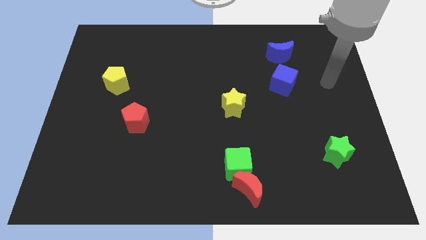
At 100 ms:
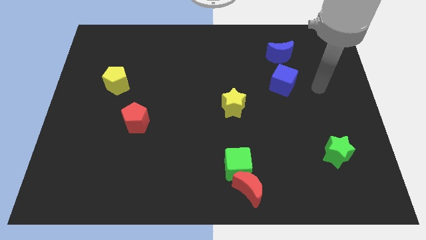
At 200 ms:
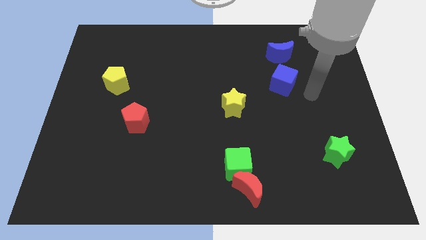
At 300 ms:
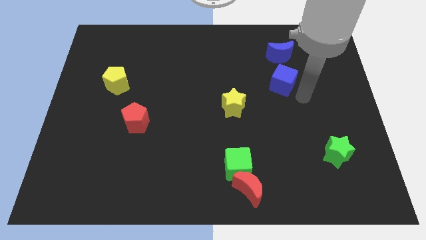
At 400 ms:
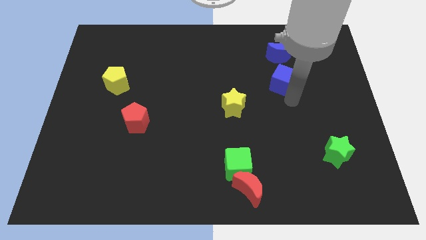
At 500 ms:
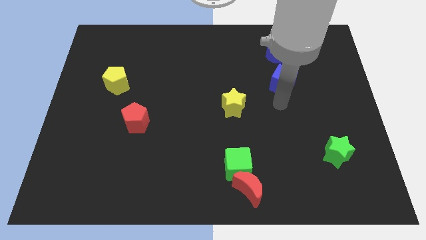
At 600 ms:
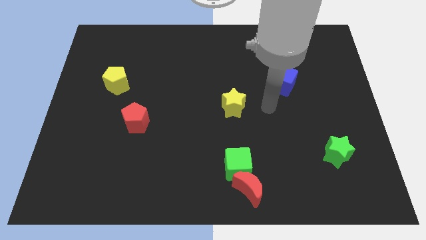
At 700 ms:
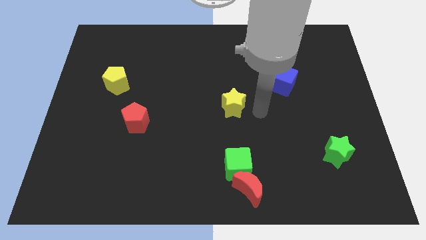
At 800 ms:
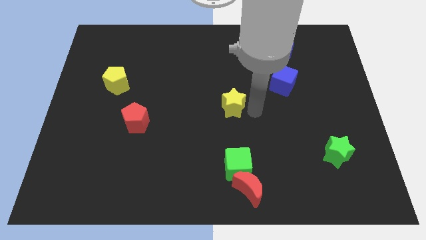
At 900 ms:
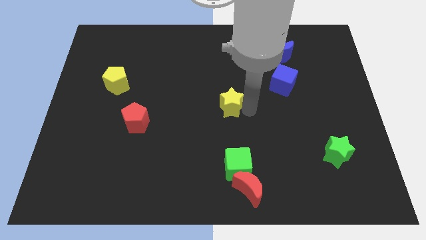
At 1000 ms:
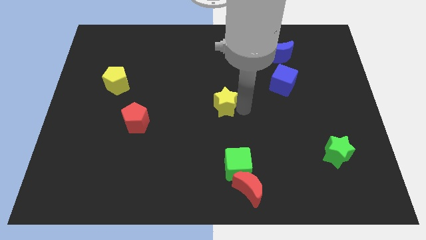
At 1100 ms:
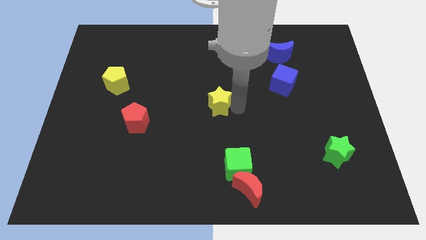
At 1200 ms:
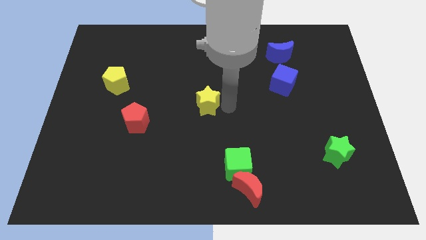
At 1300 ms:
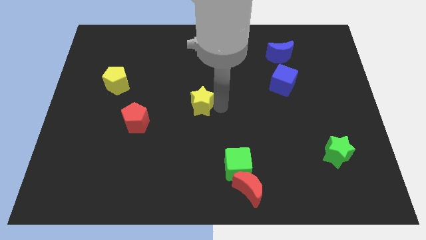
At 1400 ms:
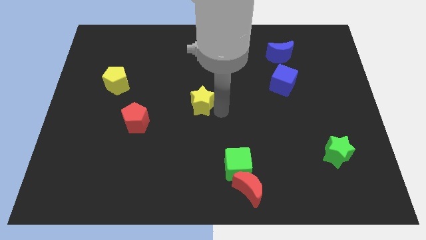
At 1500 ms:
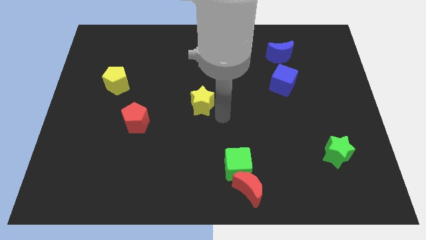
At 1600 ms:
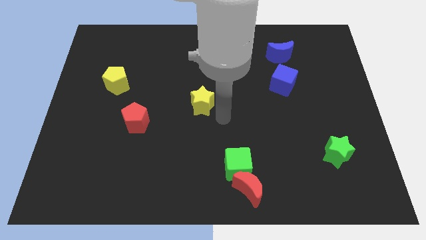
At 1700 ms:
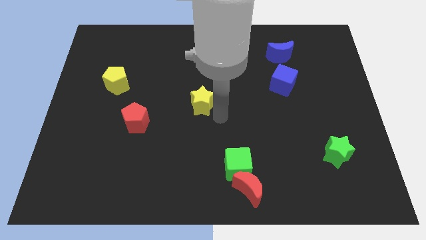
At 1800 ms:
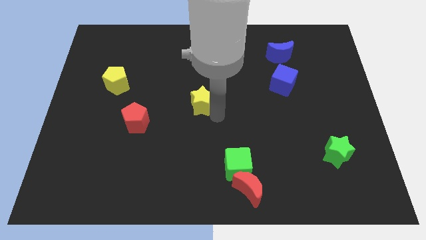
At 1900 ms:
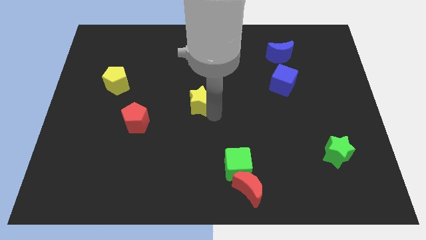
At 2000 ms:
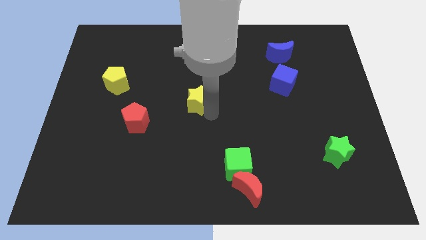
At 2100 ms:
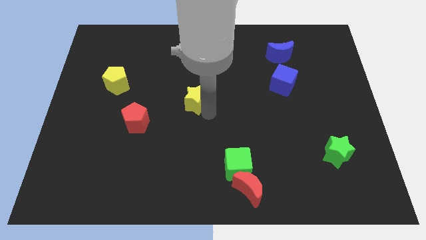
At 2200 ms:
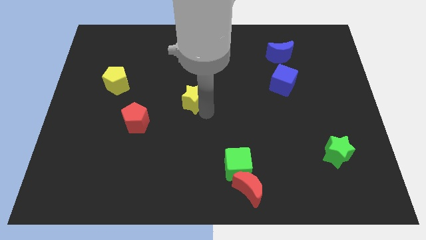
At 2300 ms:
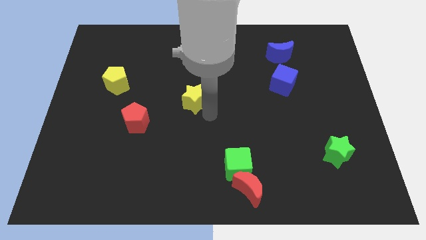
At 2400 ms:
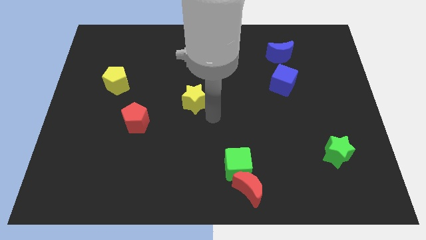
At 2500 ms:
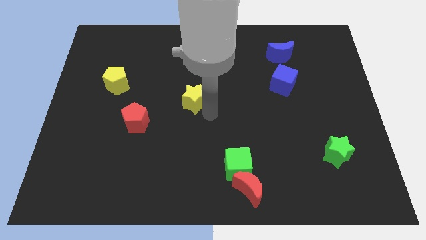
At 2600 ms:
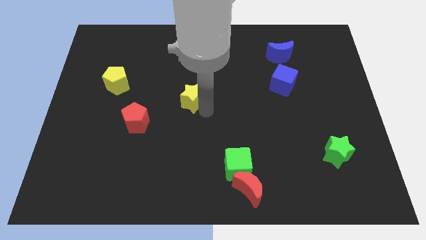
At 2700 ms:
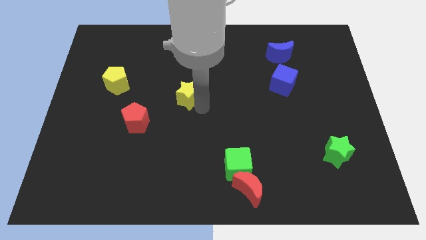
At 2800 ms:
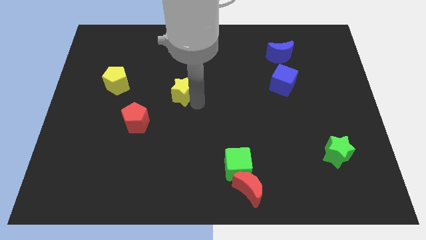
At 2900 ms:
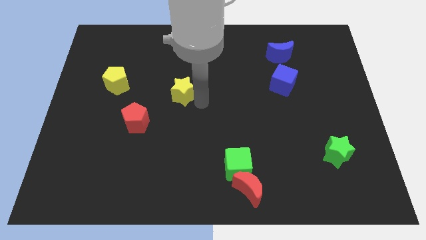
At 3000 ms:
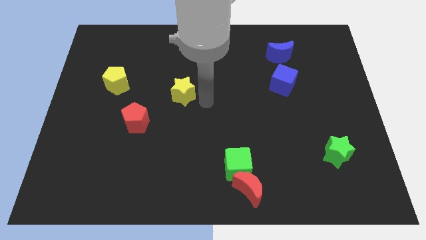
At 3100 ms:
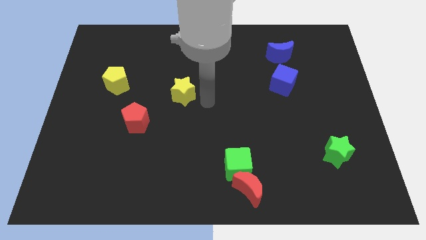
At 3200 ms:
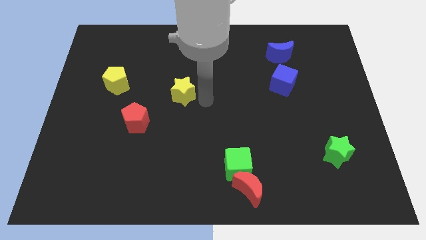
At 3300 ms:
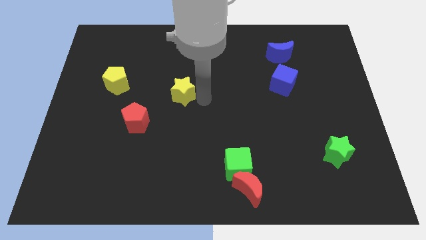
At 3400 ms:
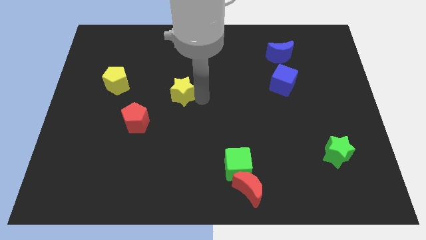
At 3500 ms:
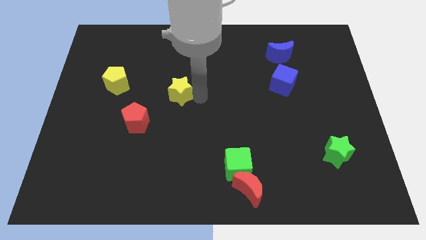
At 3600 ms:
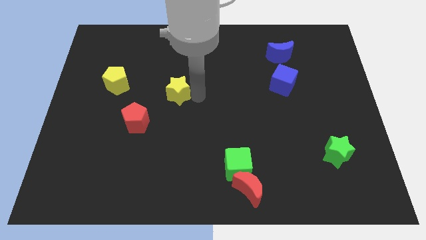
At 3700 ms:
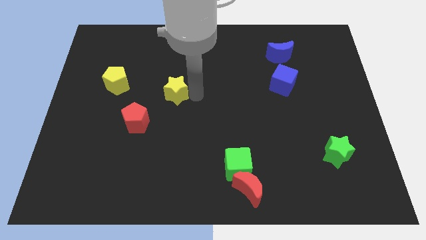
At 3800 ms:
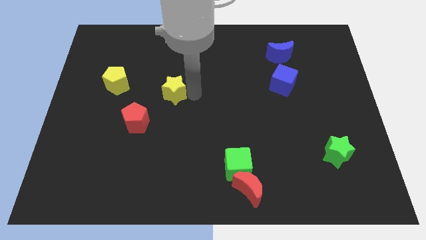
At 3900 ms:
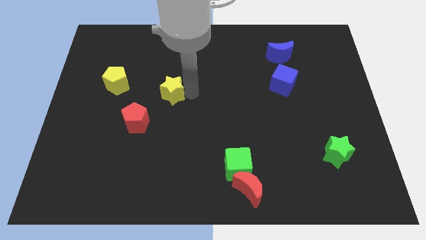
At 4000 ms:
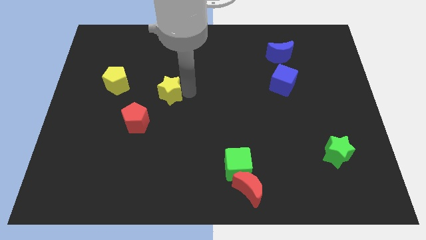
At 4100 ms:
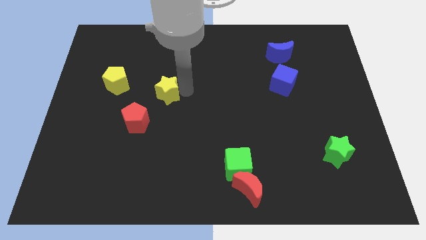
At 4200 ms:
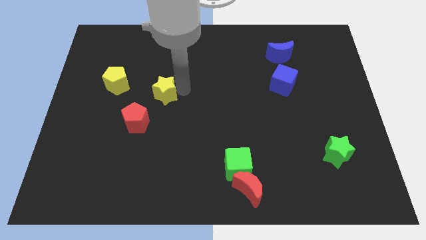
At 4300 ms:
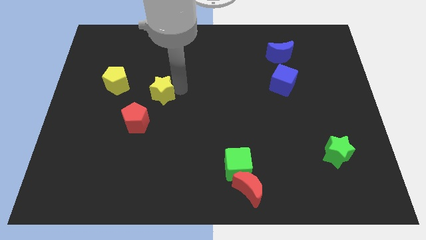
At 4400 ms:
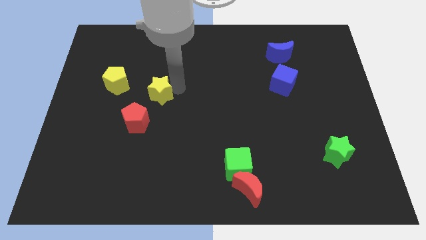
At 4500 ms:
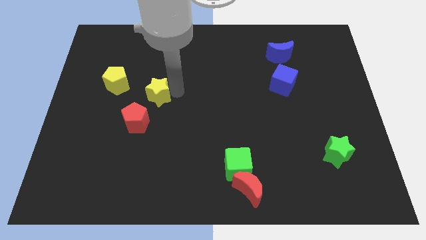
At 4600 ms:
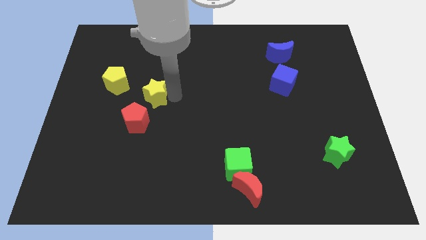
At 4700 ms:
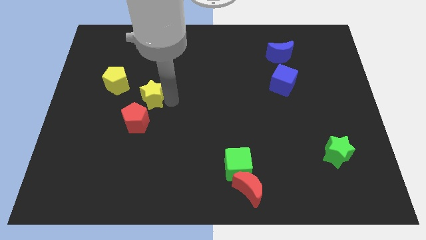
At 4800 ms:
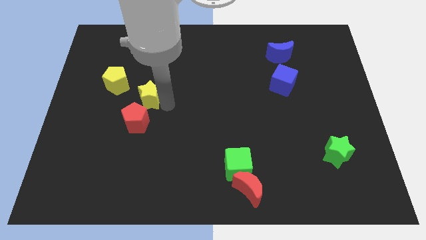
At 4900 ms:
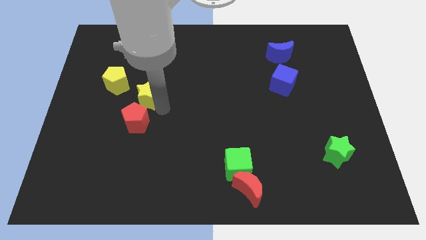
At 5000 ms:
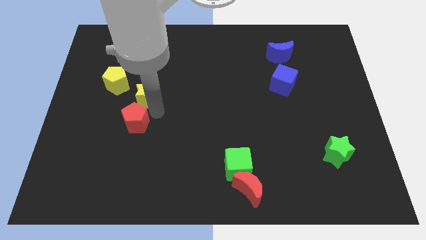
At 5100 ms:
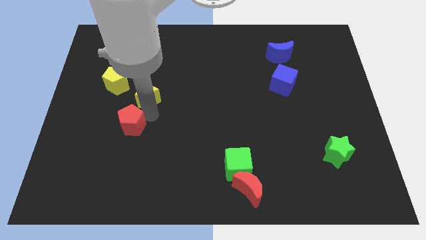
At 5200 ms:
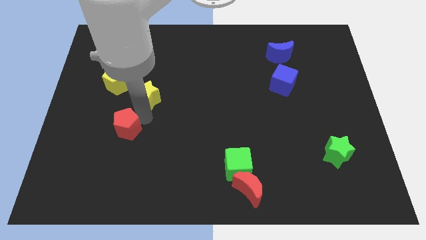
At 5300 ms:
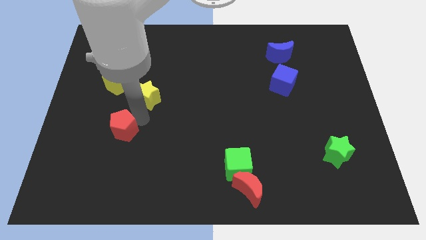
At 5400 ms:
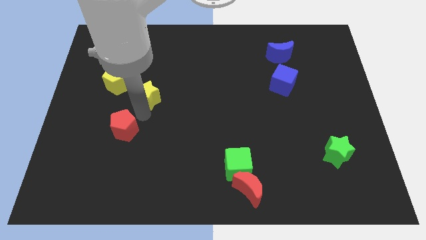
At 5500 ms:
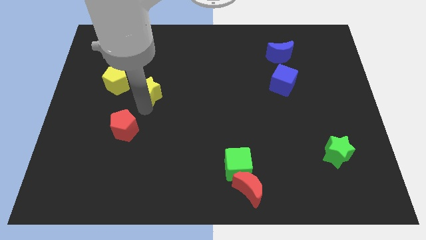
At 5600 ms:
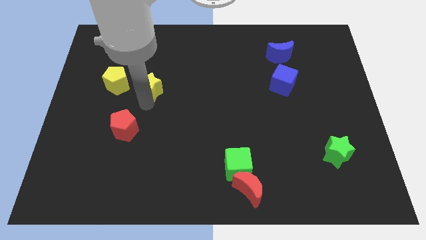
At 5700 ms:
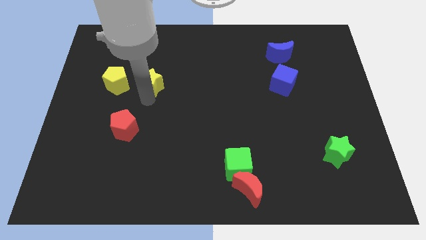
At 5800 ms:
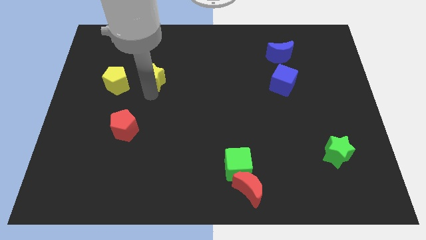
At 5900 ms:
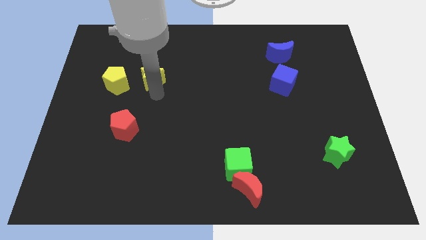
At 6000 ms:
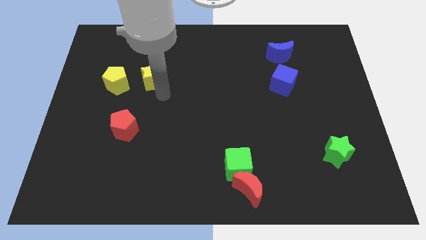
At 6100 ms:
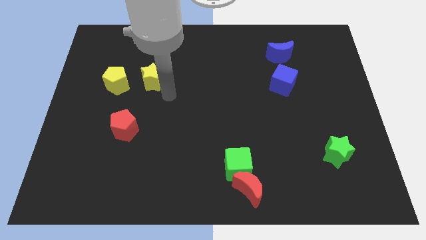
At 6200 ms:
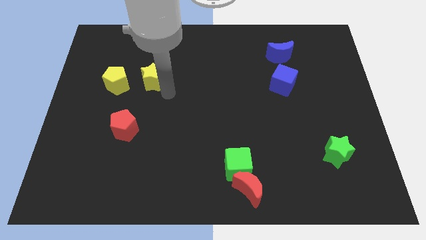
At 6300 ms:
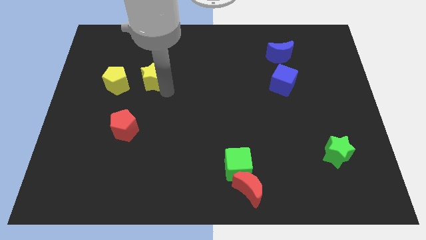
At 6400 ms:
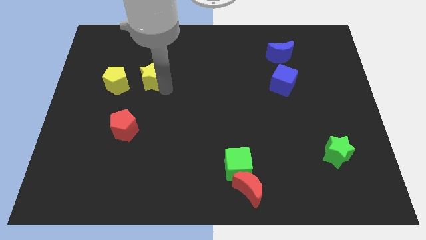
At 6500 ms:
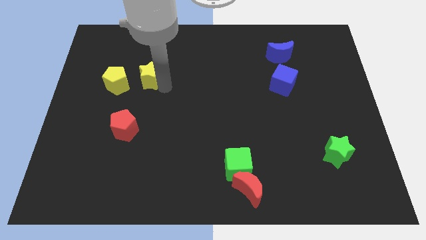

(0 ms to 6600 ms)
move the yellow star to the top right of the yellow pentagon
